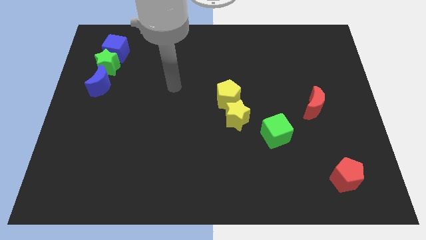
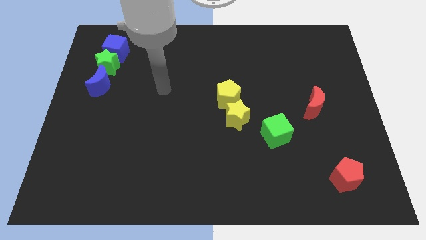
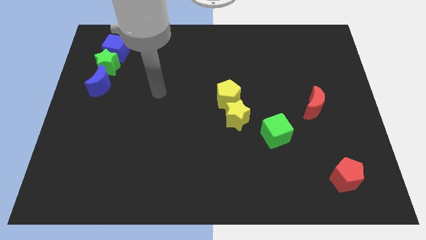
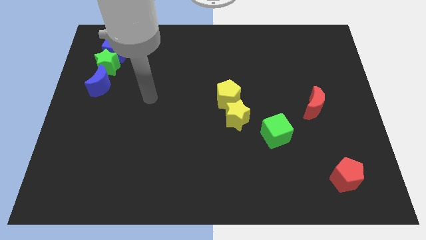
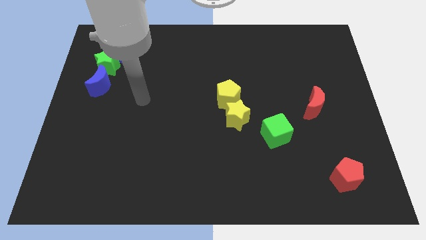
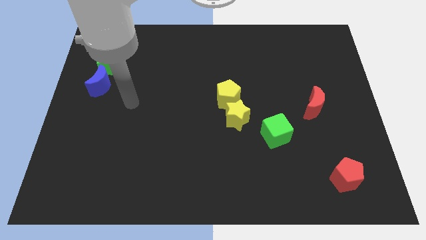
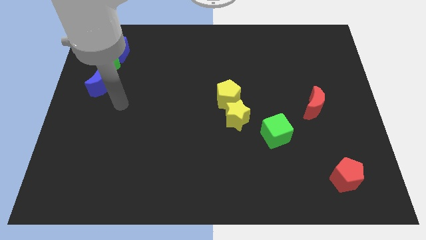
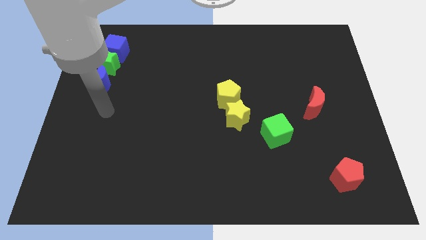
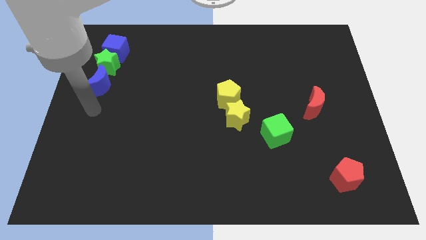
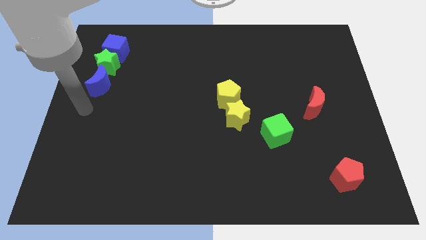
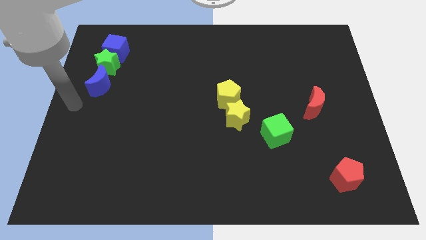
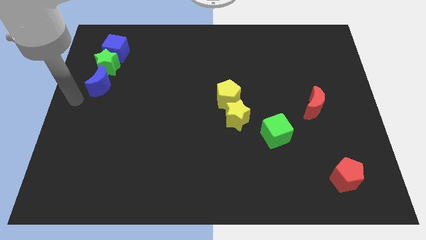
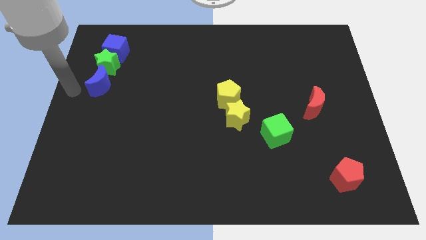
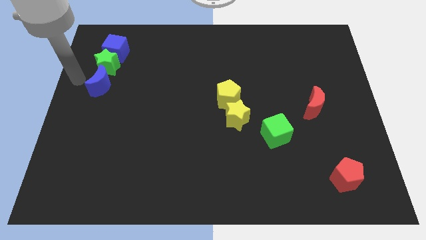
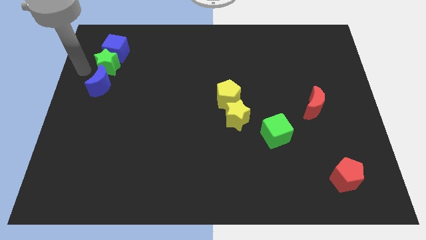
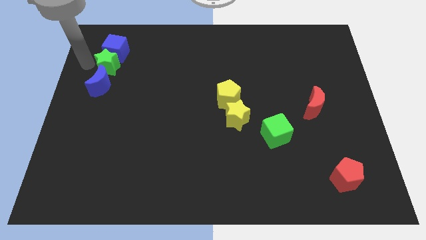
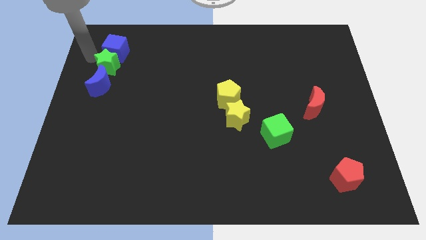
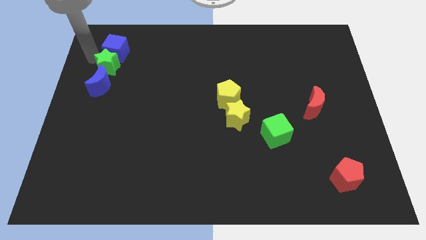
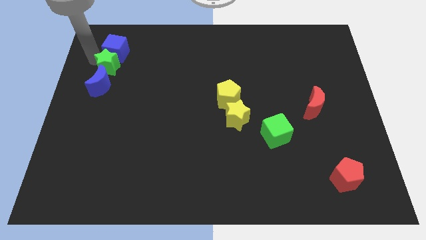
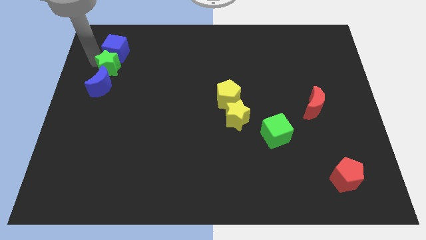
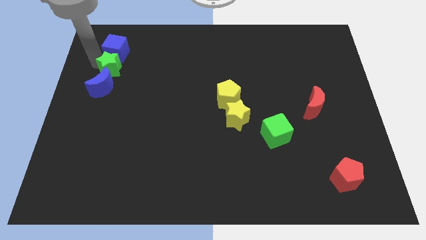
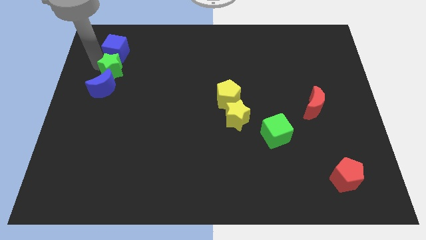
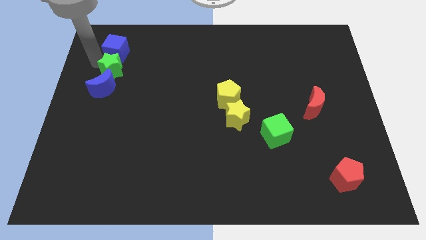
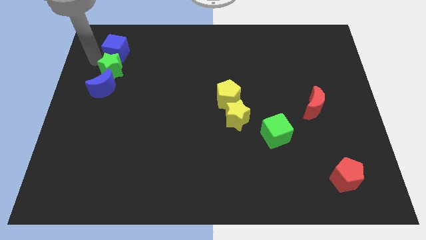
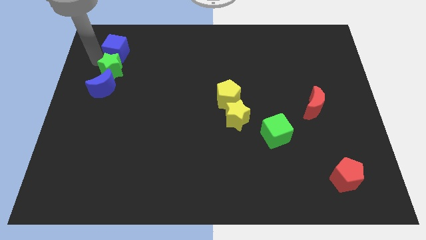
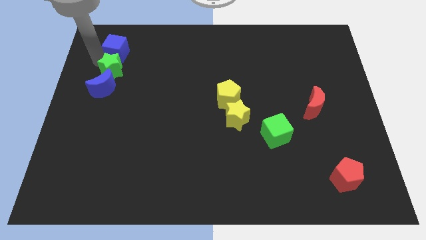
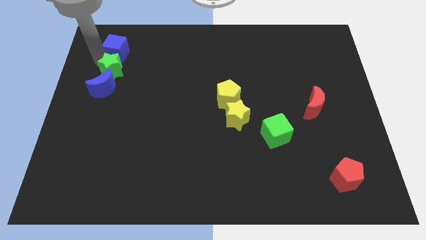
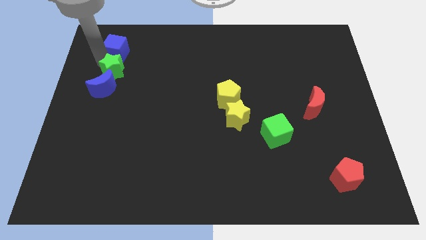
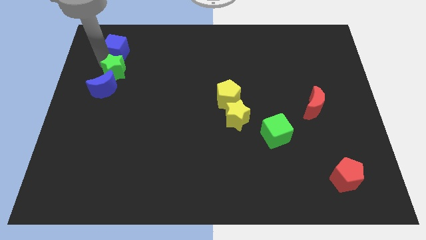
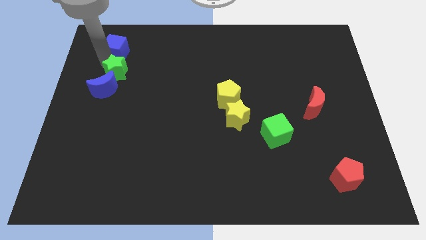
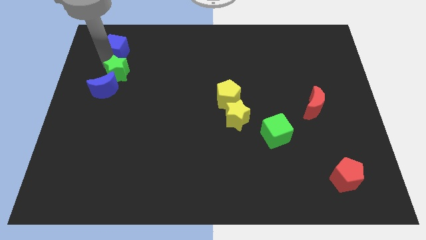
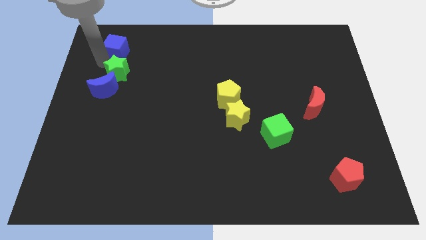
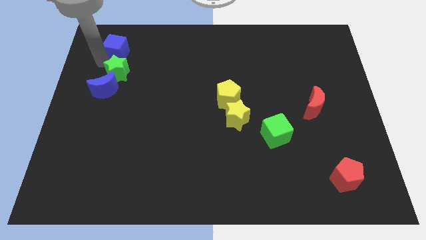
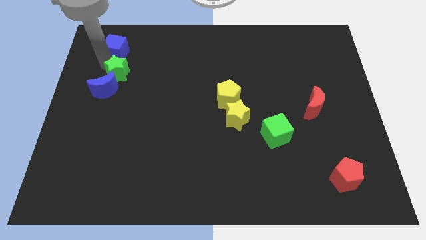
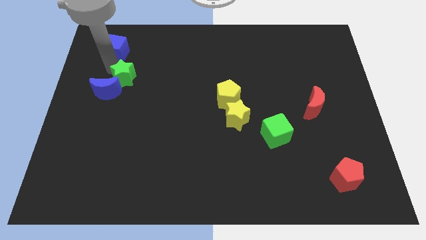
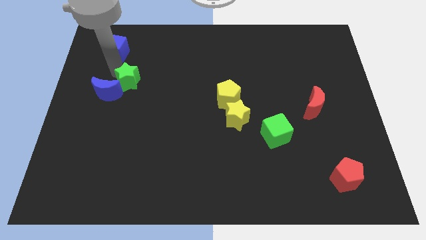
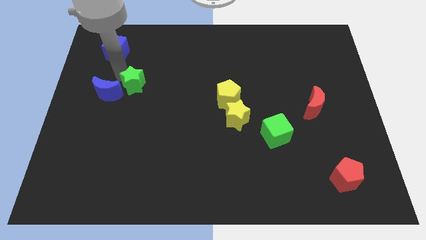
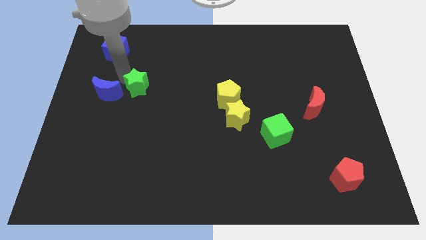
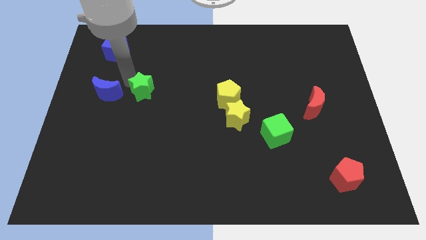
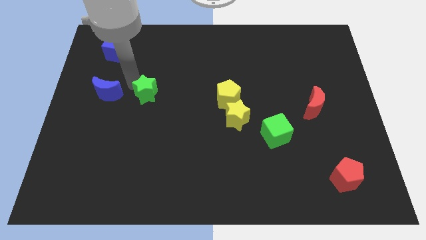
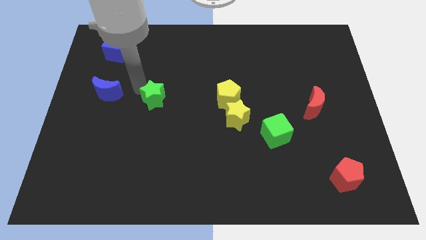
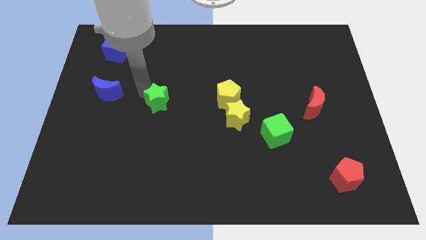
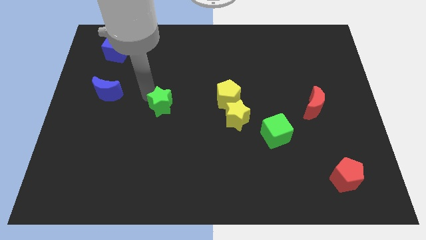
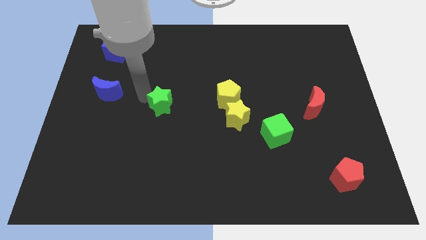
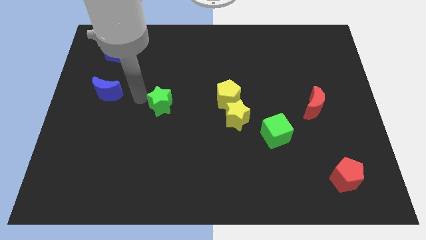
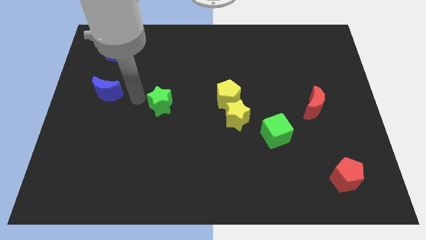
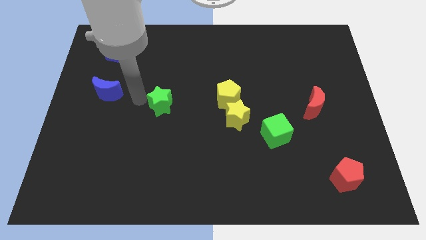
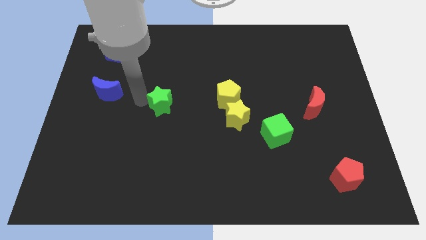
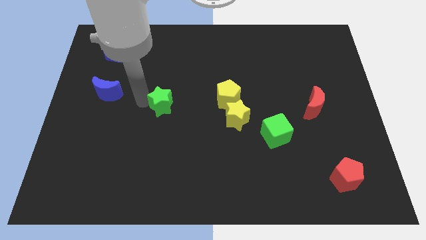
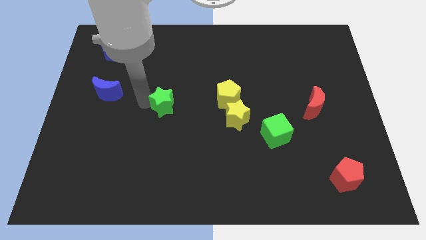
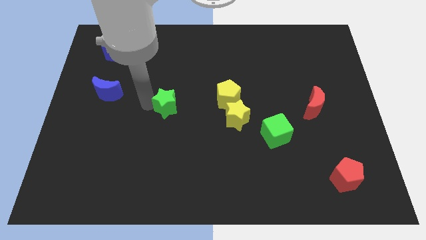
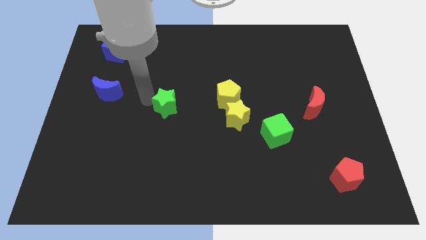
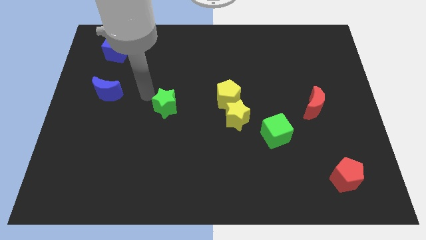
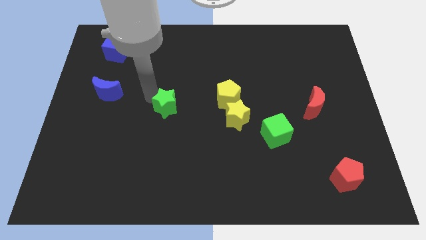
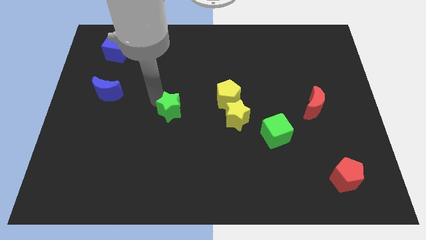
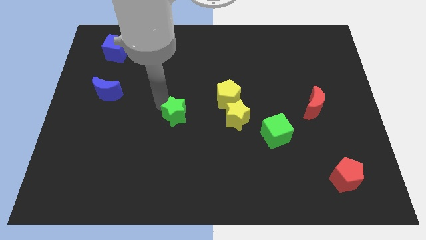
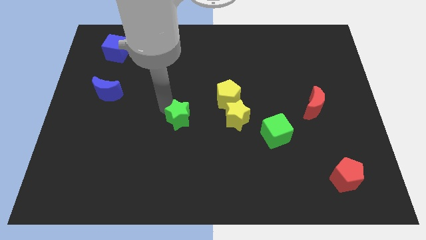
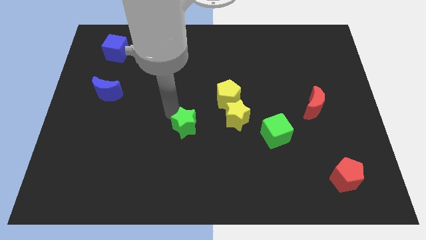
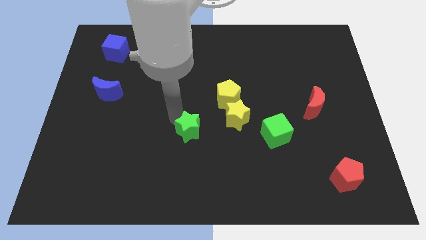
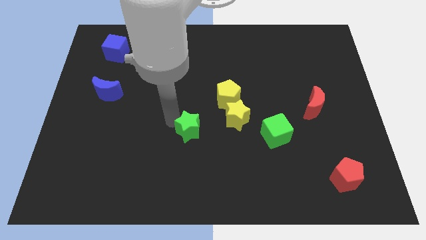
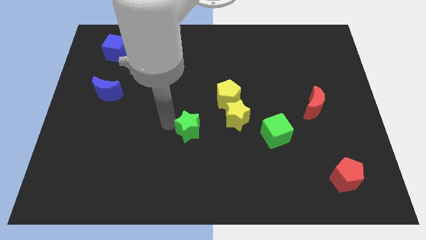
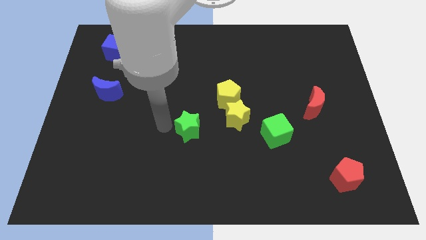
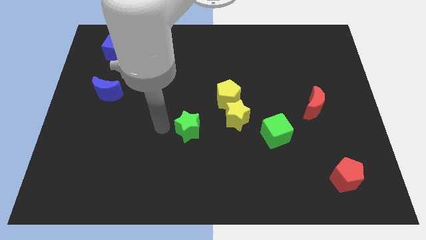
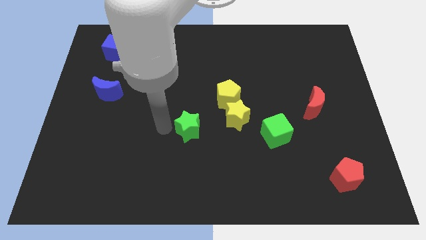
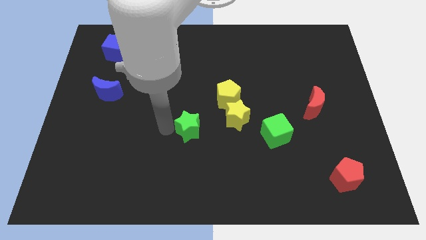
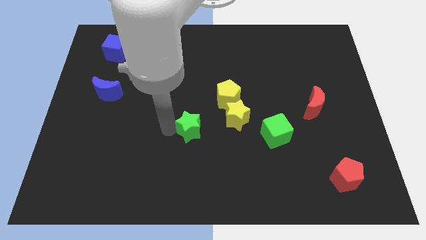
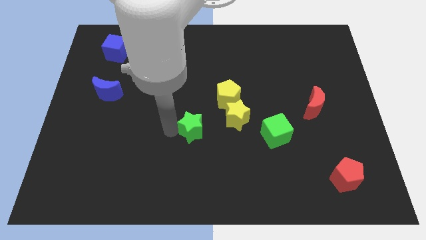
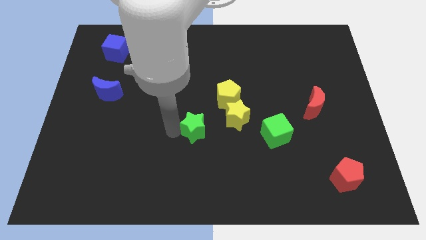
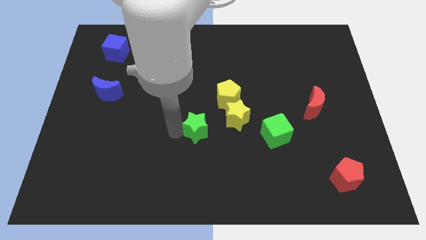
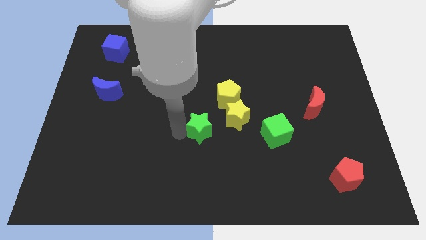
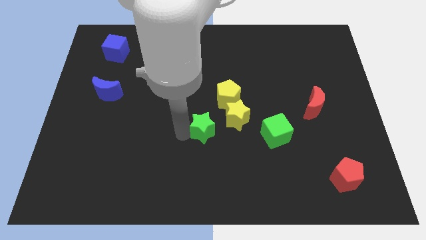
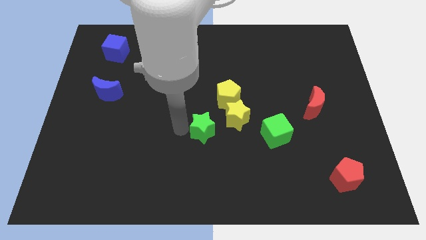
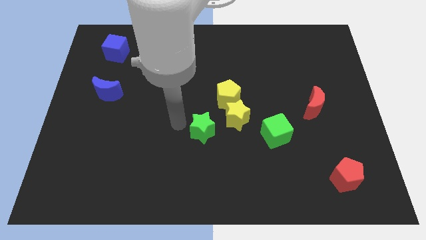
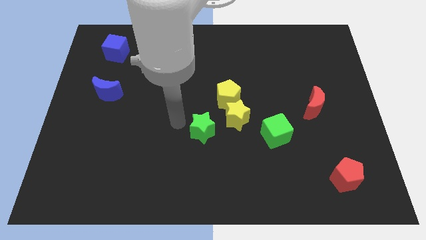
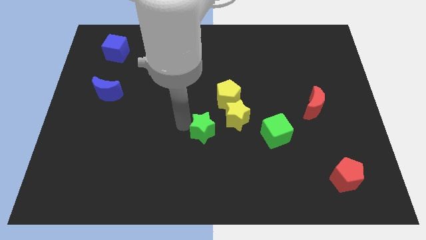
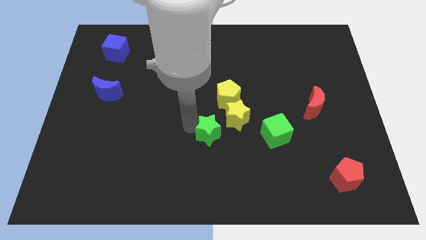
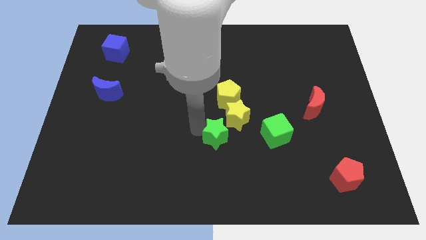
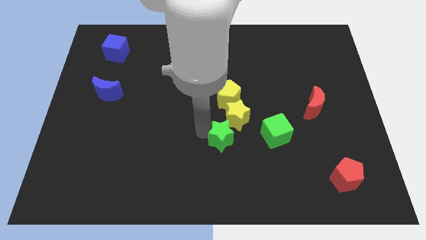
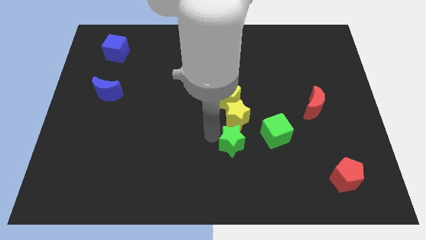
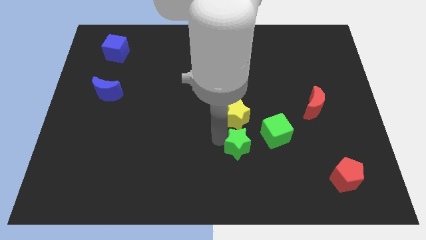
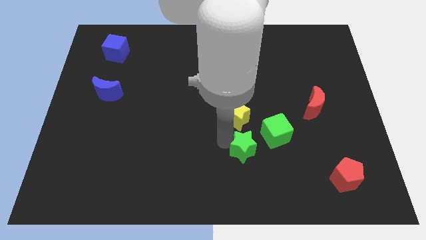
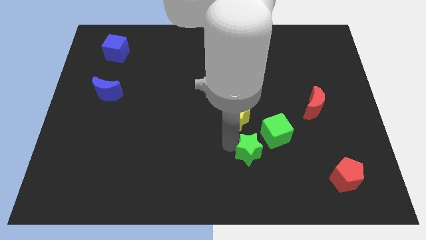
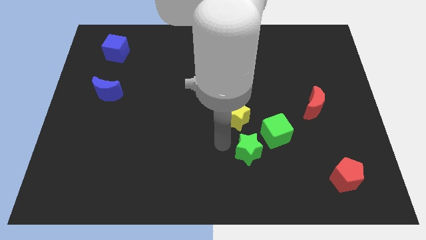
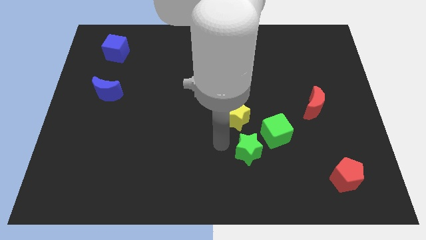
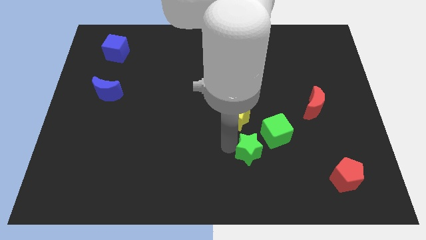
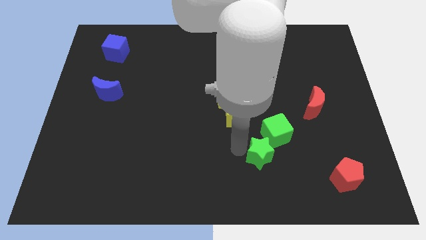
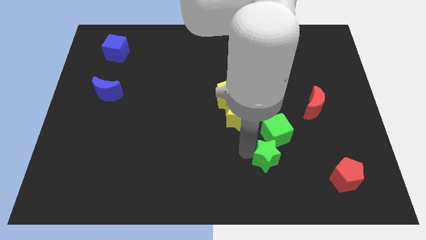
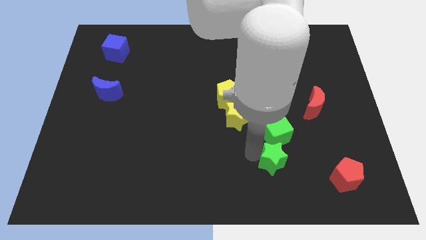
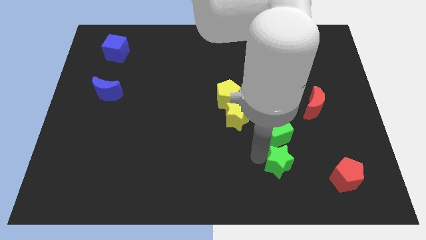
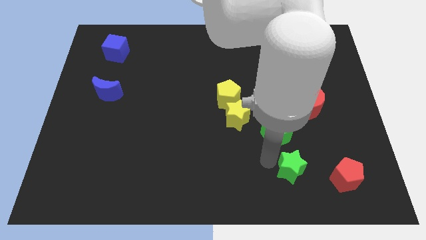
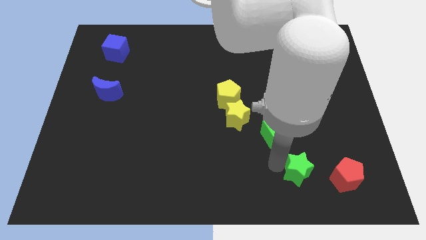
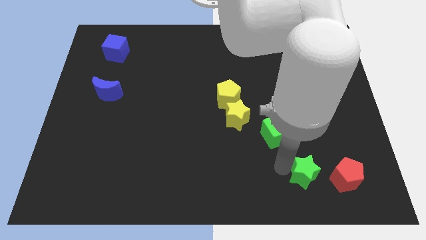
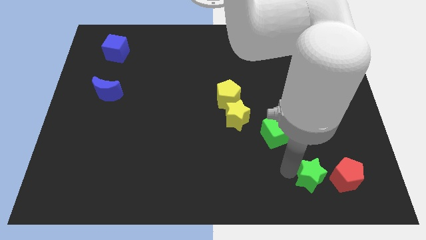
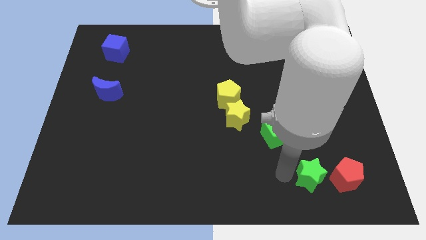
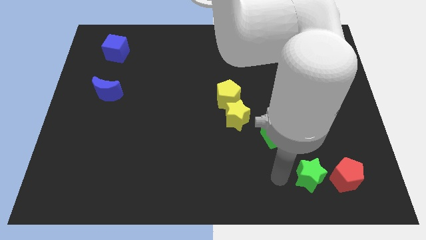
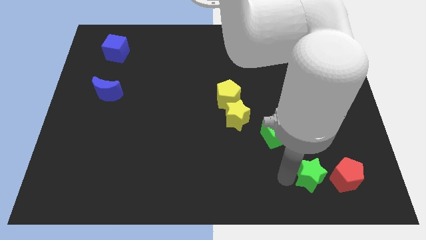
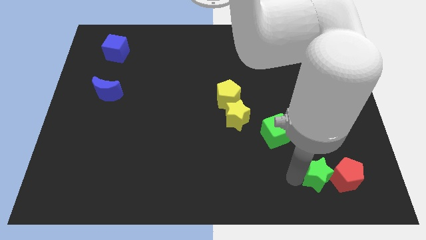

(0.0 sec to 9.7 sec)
move the green star next to the red pentagon
